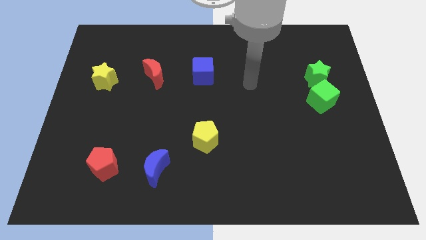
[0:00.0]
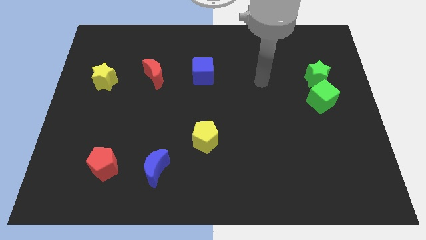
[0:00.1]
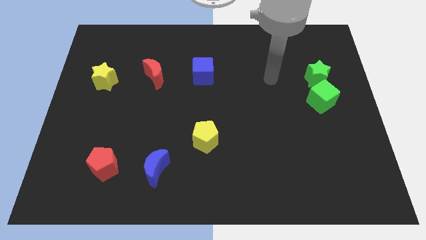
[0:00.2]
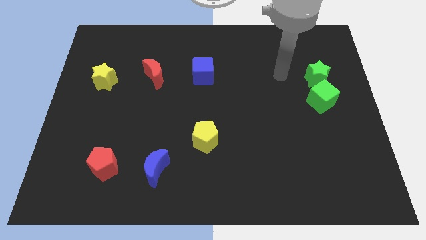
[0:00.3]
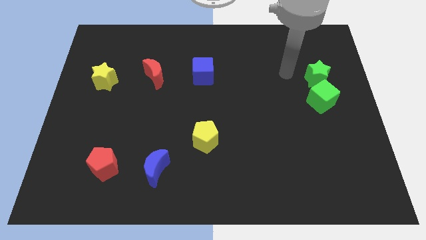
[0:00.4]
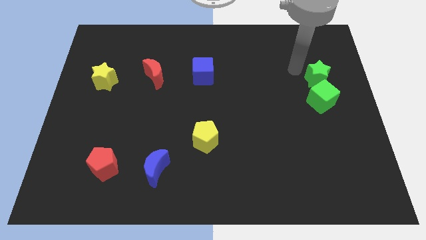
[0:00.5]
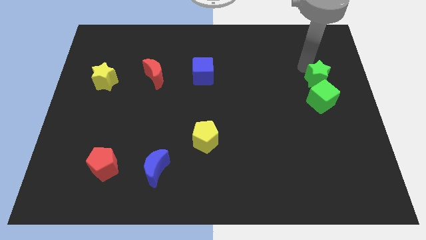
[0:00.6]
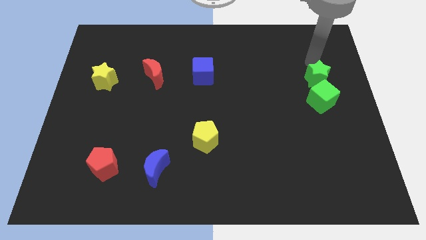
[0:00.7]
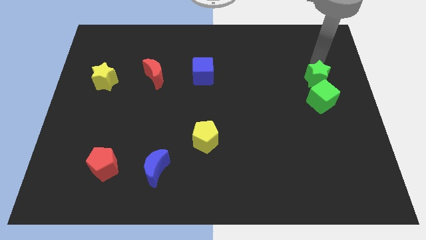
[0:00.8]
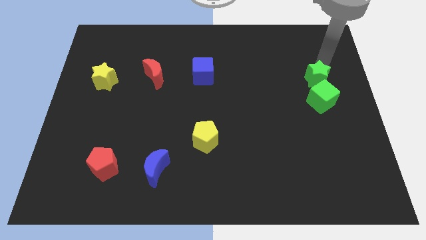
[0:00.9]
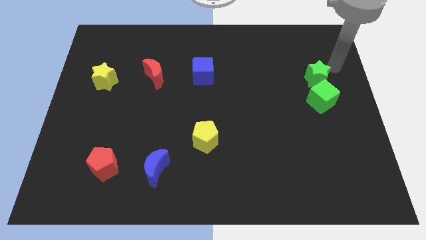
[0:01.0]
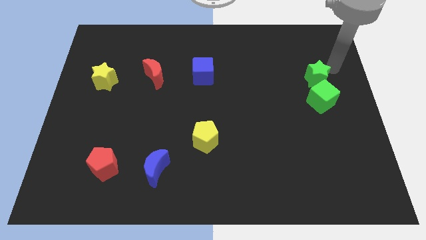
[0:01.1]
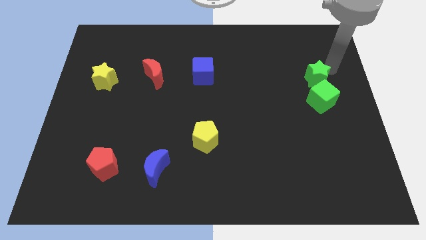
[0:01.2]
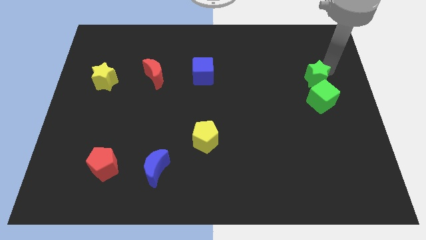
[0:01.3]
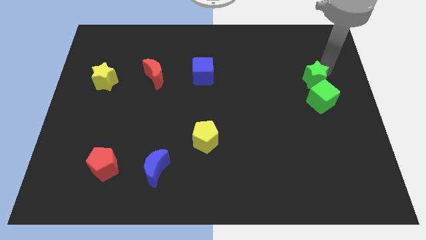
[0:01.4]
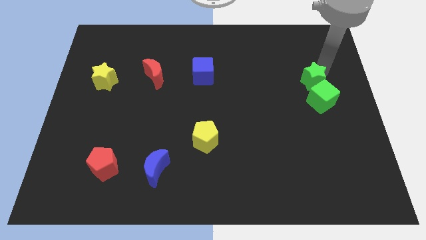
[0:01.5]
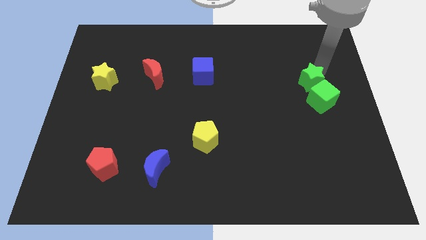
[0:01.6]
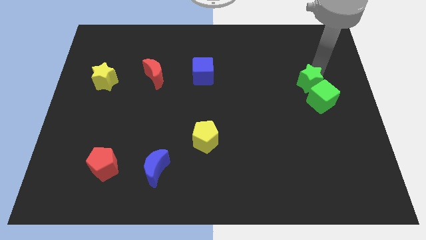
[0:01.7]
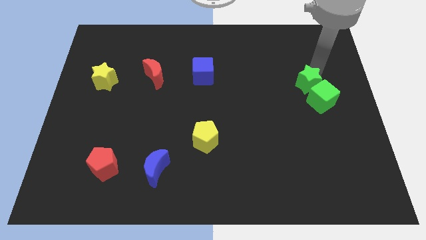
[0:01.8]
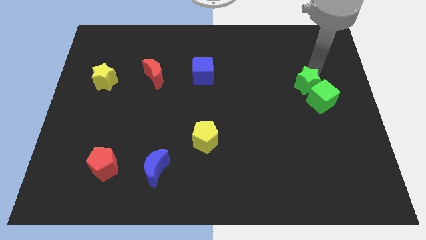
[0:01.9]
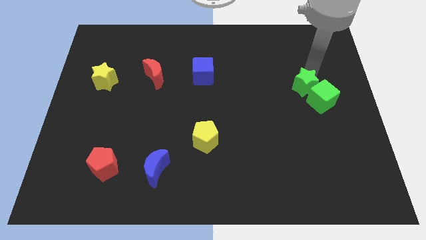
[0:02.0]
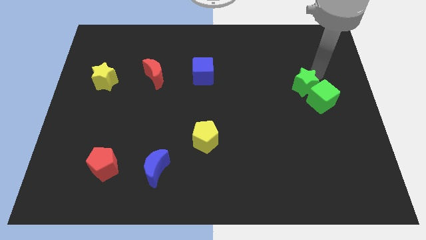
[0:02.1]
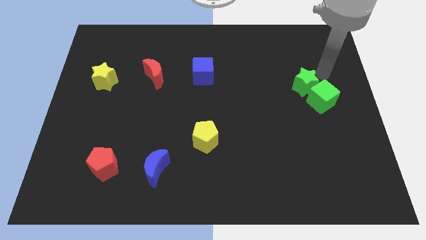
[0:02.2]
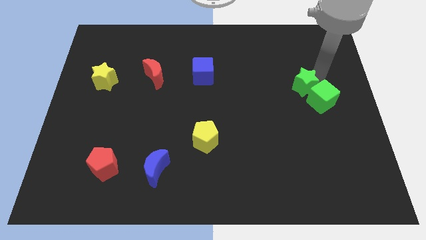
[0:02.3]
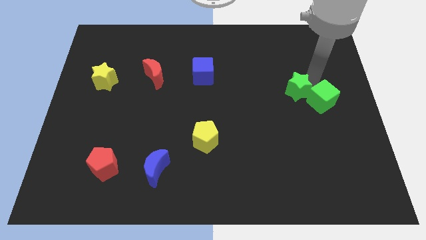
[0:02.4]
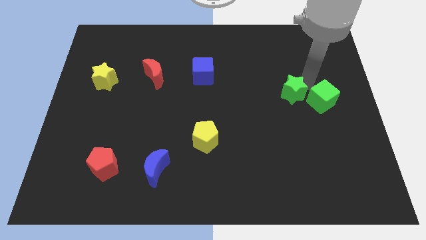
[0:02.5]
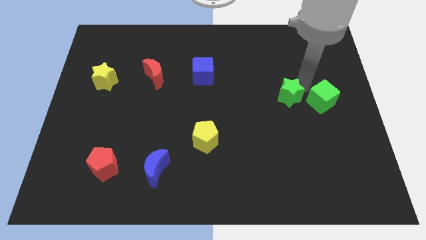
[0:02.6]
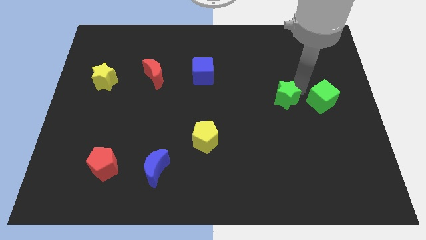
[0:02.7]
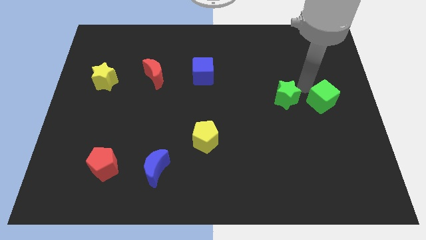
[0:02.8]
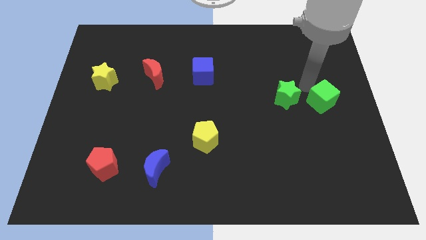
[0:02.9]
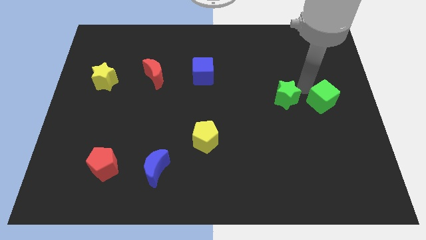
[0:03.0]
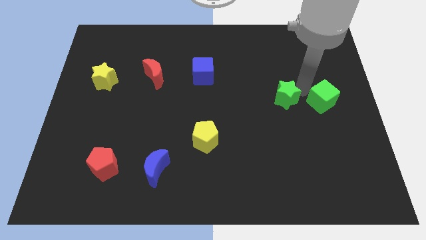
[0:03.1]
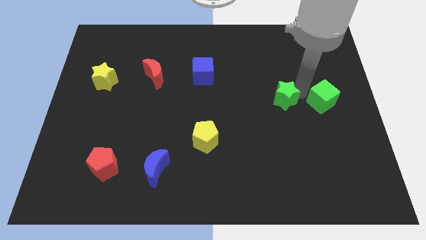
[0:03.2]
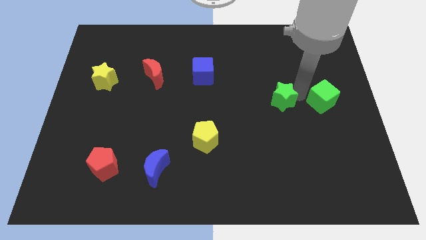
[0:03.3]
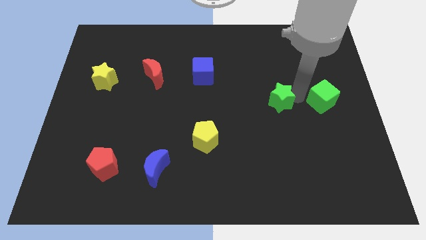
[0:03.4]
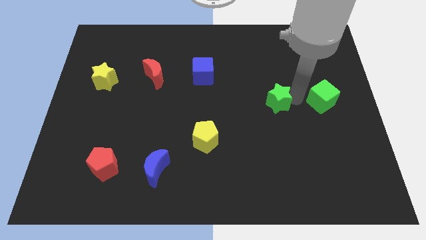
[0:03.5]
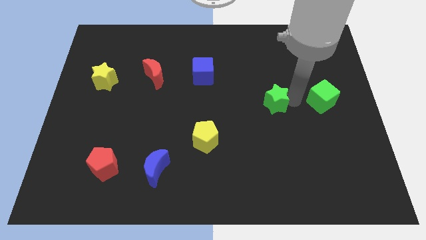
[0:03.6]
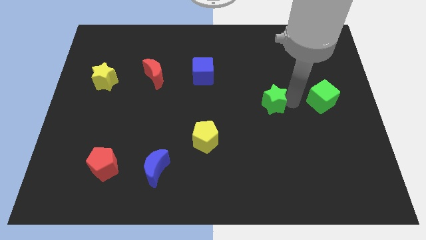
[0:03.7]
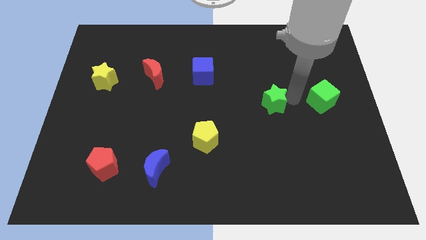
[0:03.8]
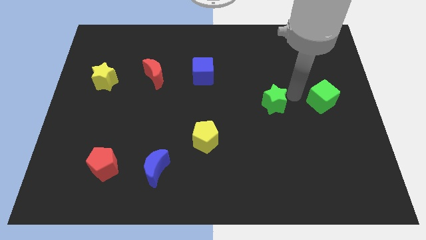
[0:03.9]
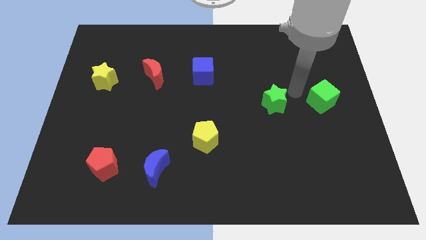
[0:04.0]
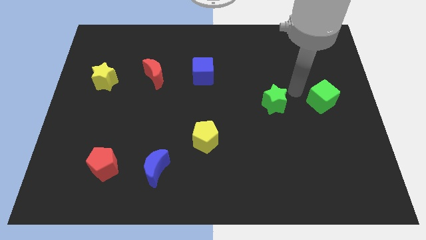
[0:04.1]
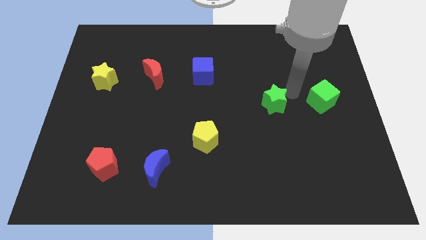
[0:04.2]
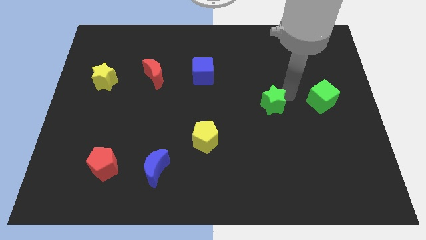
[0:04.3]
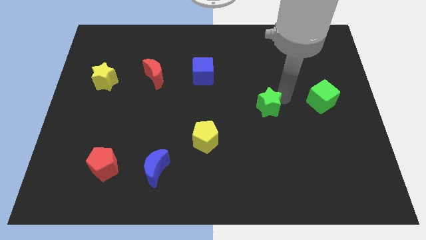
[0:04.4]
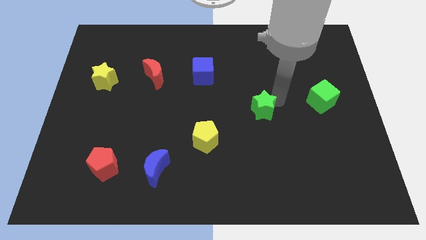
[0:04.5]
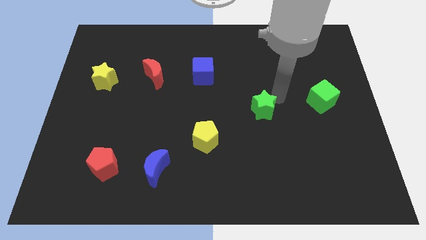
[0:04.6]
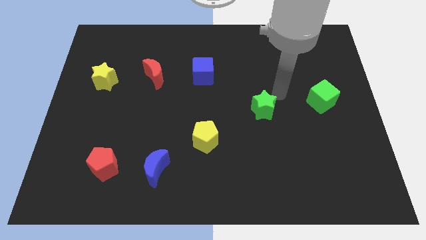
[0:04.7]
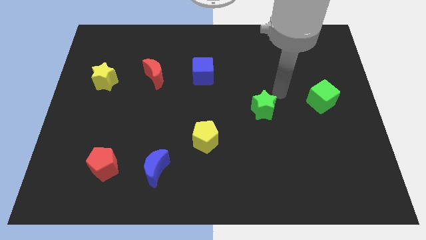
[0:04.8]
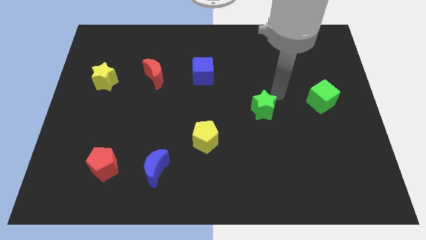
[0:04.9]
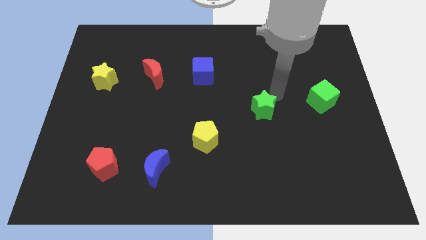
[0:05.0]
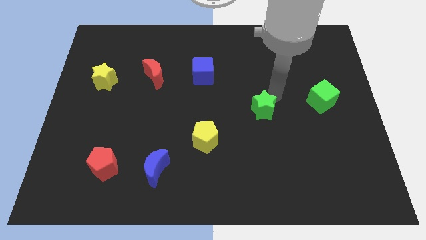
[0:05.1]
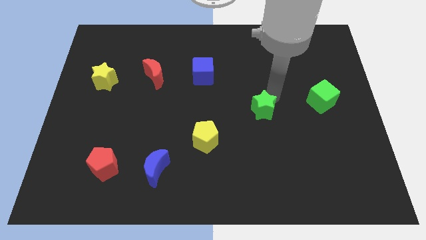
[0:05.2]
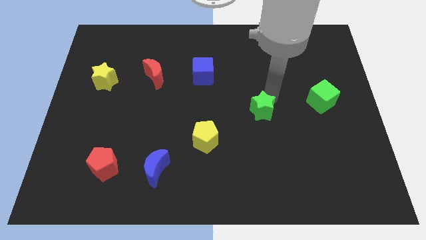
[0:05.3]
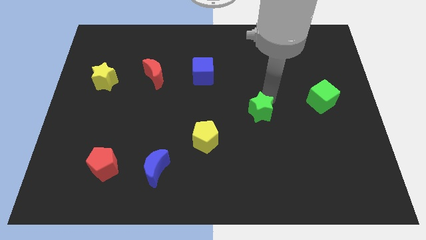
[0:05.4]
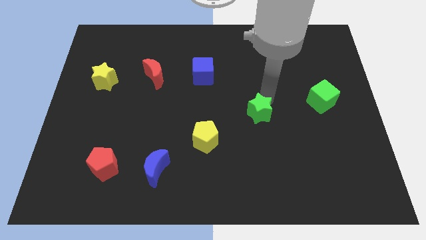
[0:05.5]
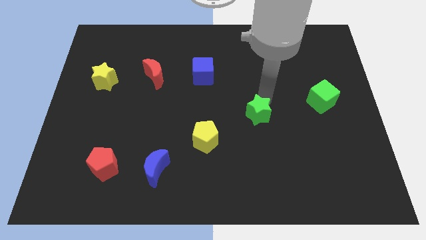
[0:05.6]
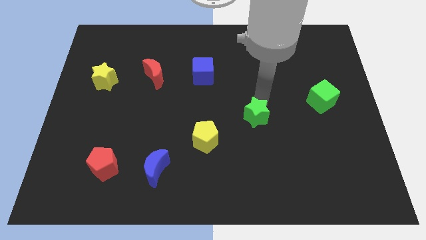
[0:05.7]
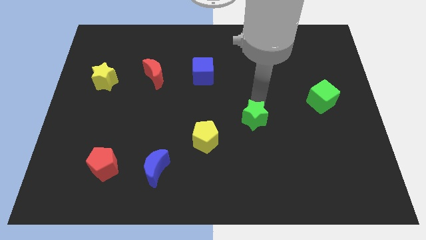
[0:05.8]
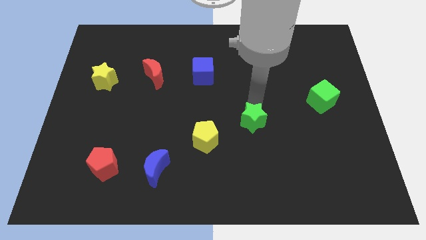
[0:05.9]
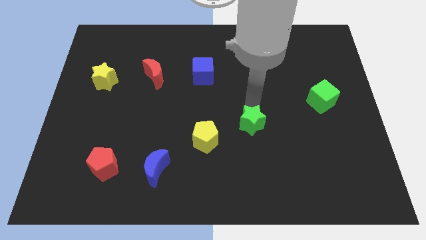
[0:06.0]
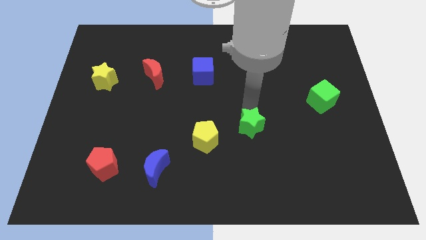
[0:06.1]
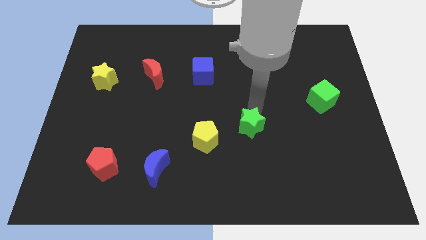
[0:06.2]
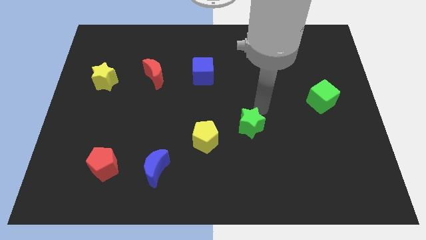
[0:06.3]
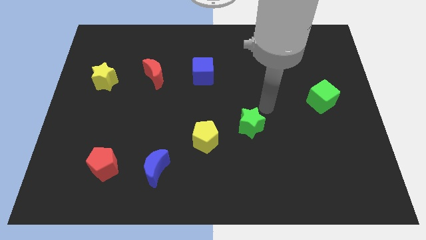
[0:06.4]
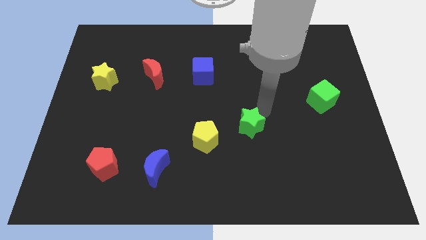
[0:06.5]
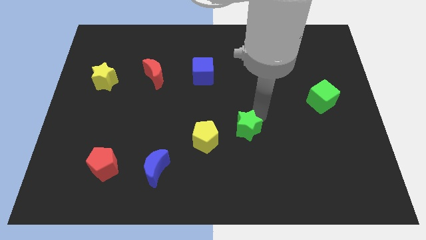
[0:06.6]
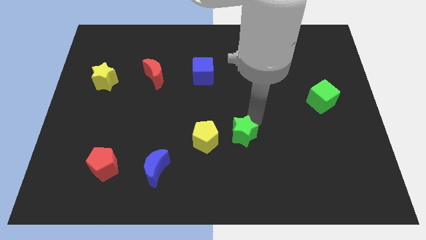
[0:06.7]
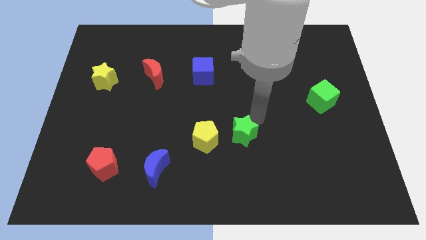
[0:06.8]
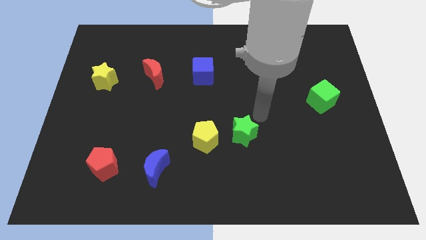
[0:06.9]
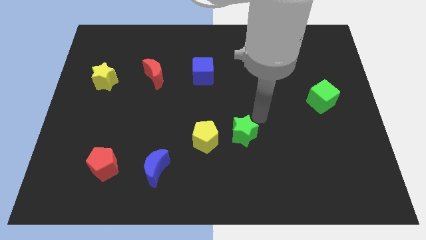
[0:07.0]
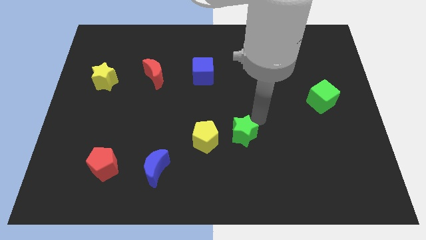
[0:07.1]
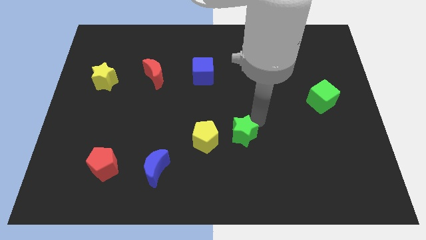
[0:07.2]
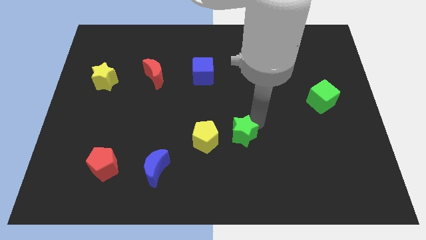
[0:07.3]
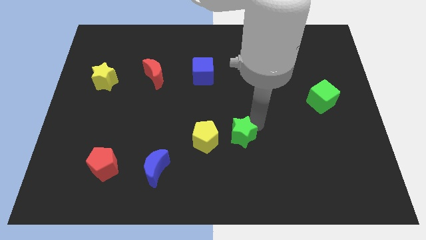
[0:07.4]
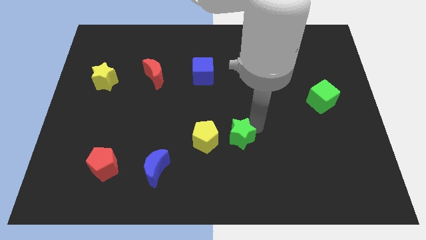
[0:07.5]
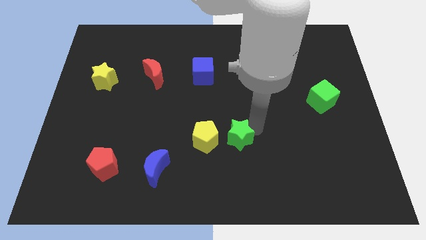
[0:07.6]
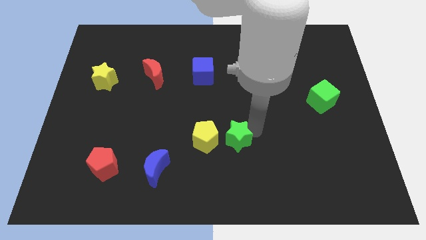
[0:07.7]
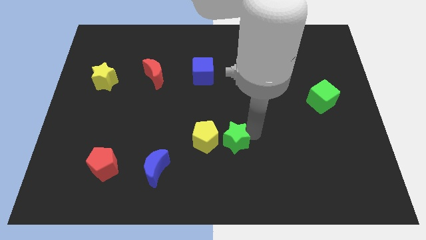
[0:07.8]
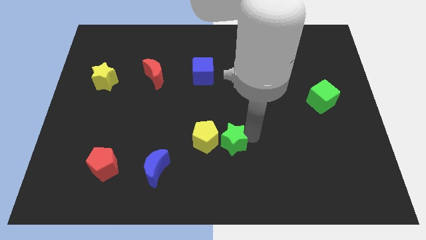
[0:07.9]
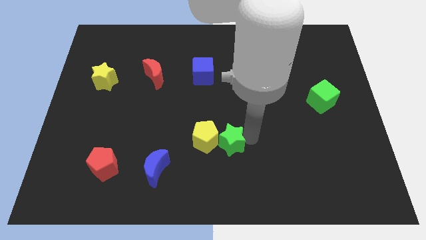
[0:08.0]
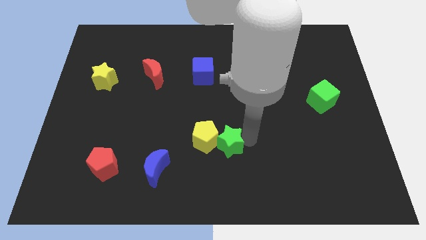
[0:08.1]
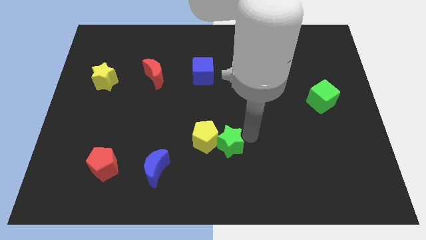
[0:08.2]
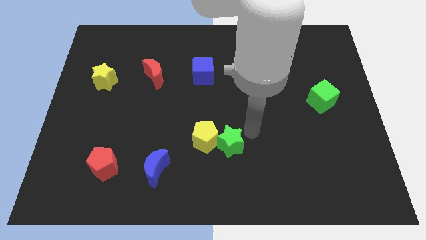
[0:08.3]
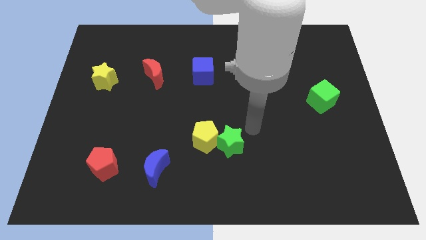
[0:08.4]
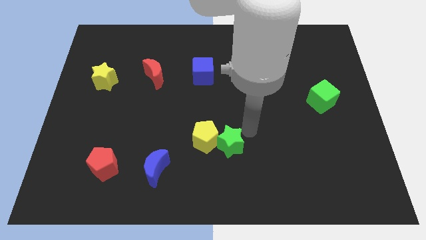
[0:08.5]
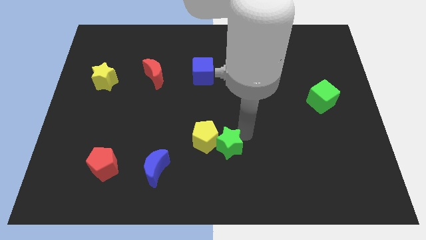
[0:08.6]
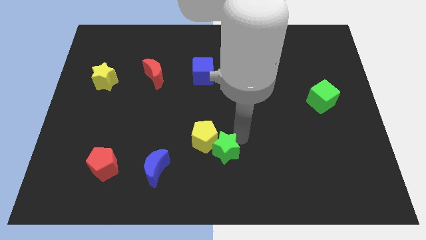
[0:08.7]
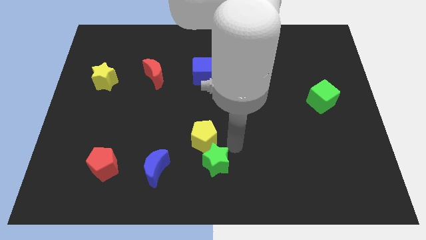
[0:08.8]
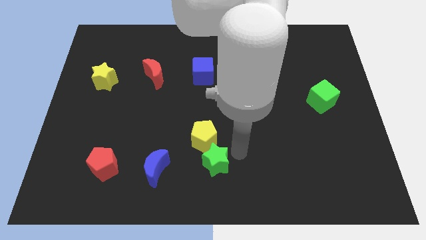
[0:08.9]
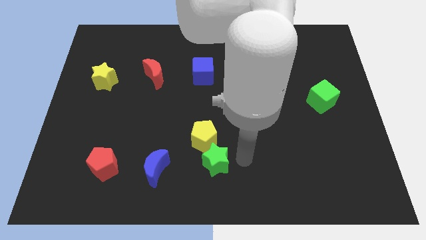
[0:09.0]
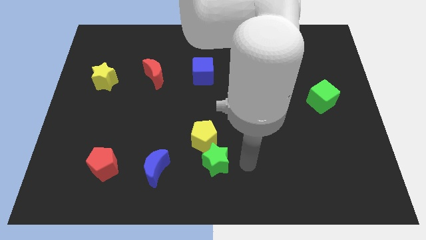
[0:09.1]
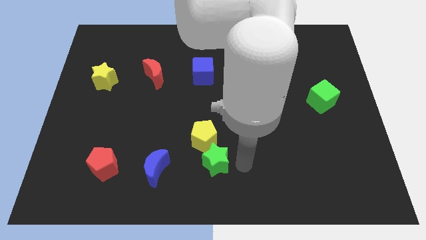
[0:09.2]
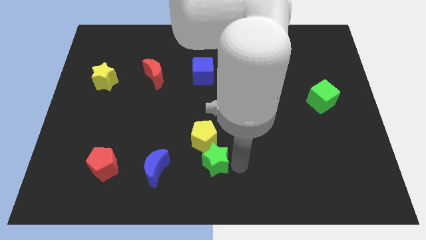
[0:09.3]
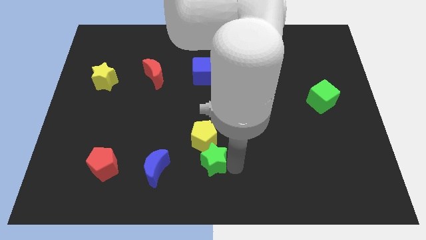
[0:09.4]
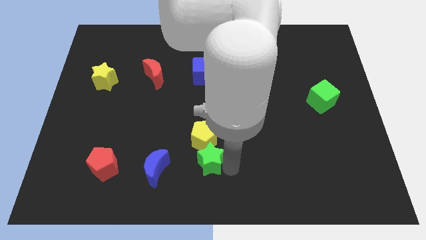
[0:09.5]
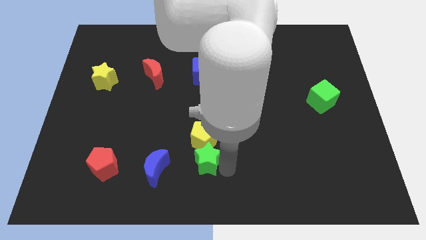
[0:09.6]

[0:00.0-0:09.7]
move the green star diagonally down and to the left of the yellow pentagon
